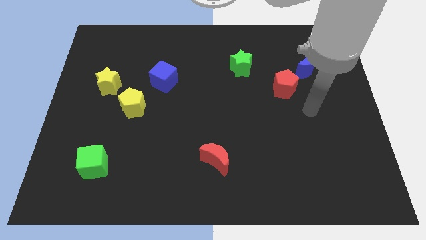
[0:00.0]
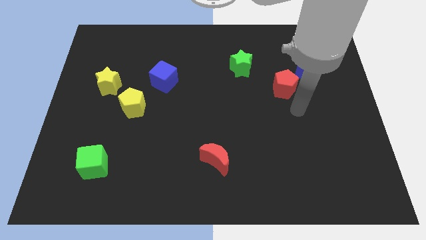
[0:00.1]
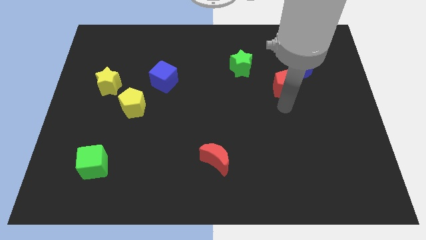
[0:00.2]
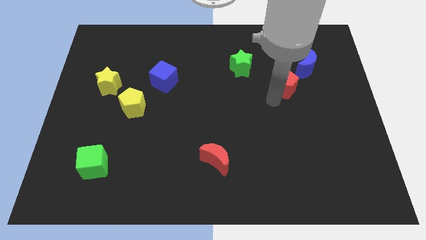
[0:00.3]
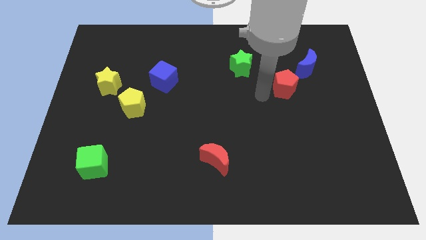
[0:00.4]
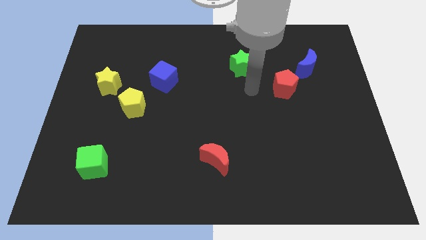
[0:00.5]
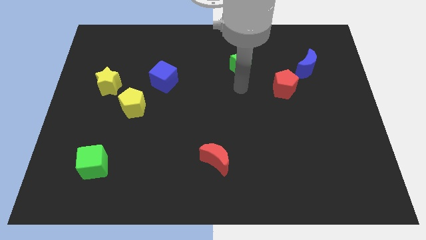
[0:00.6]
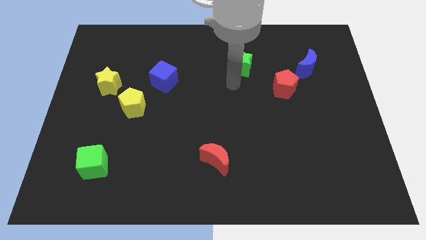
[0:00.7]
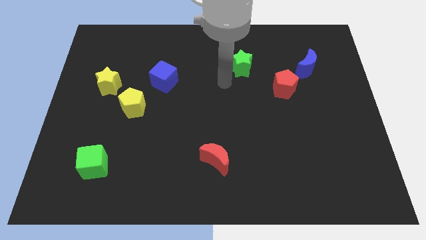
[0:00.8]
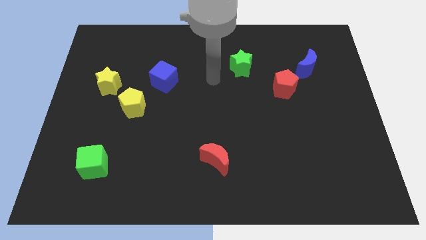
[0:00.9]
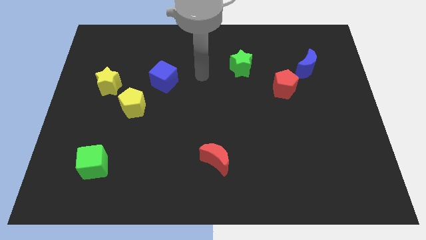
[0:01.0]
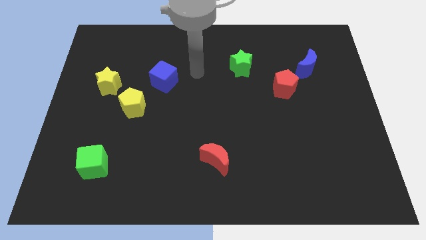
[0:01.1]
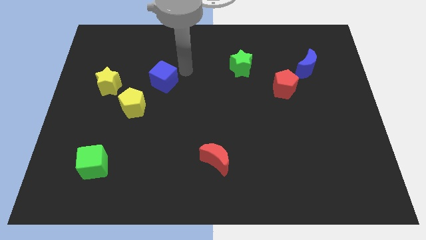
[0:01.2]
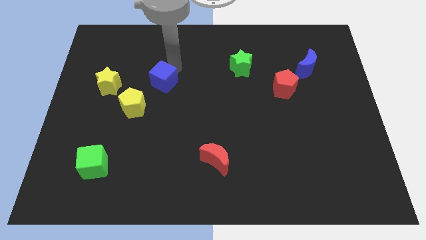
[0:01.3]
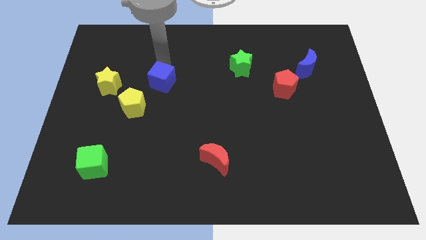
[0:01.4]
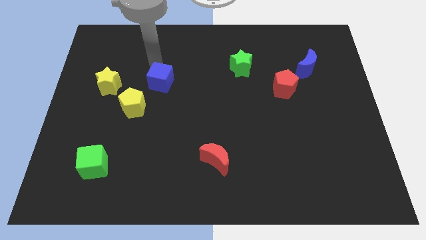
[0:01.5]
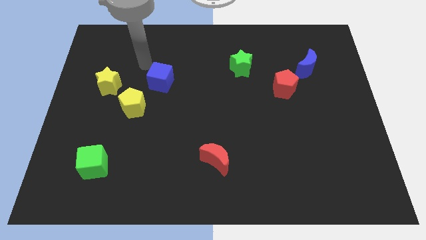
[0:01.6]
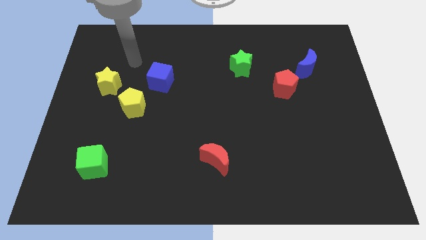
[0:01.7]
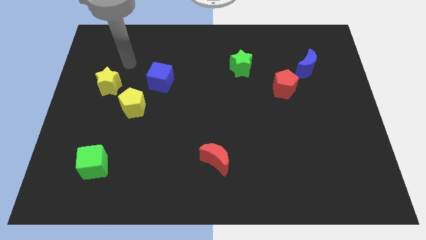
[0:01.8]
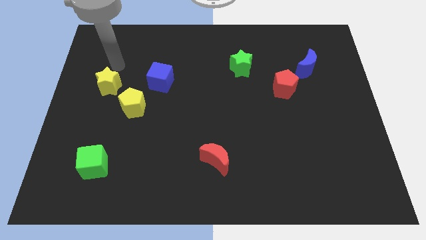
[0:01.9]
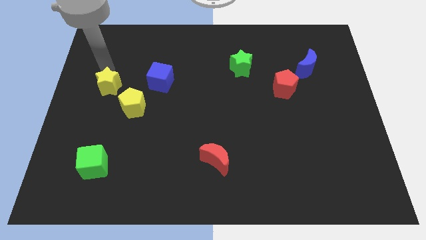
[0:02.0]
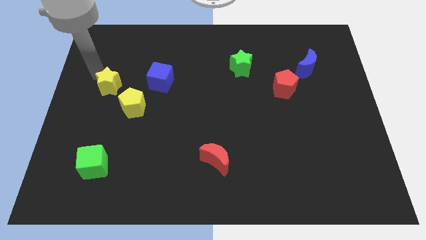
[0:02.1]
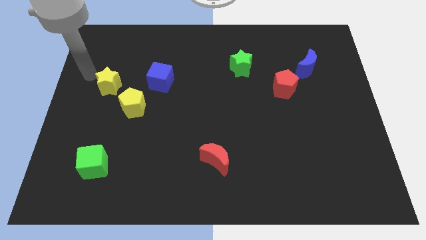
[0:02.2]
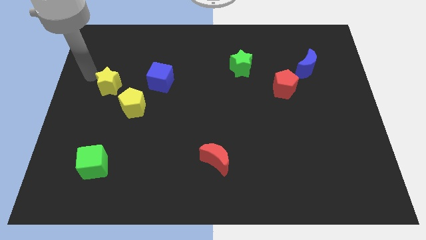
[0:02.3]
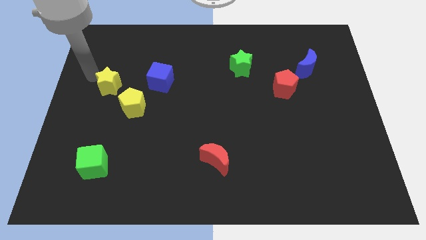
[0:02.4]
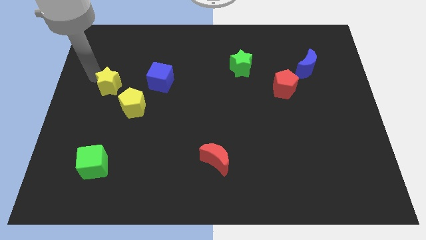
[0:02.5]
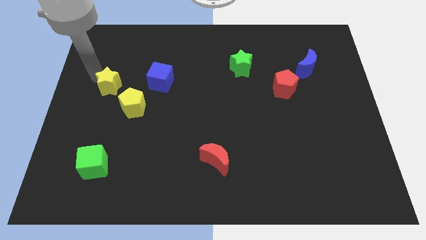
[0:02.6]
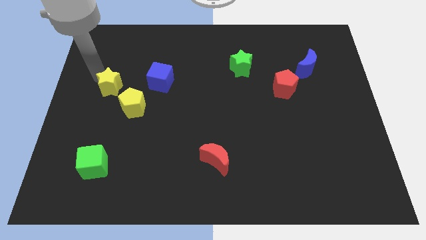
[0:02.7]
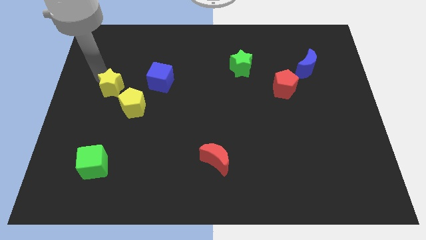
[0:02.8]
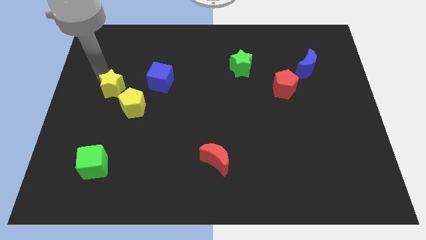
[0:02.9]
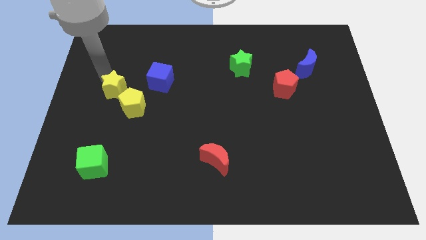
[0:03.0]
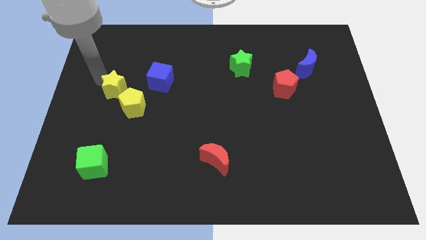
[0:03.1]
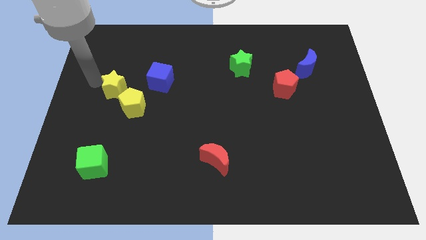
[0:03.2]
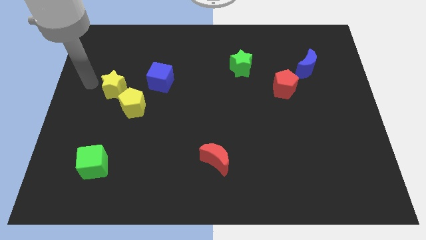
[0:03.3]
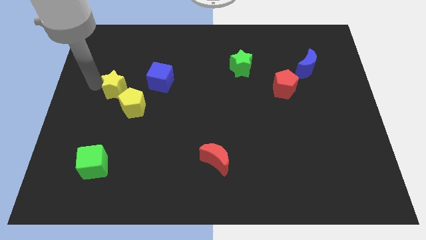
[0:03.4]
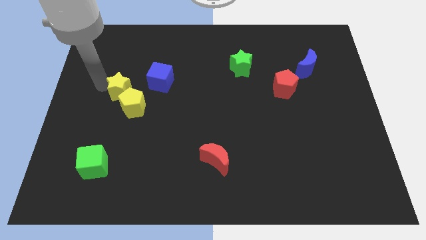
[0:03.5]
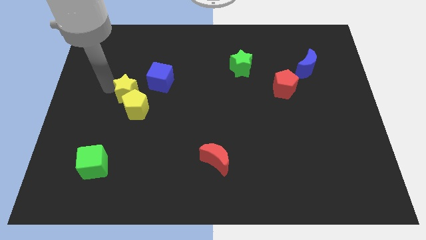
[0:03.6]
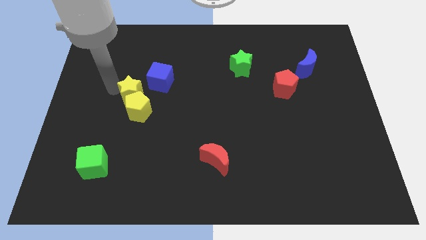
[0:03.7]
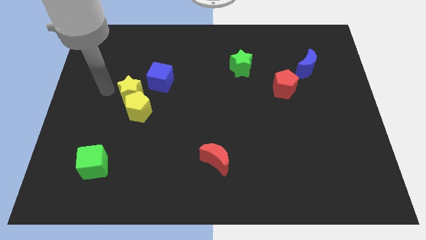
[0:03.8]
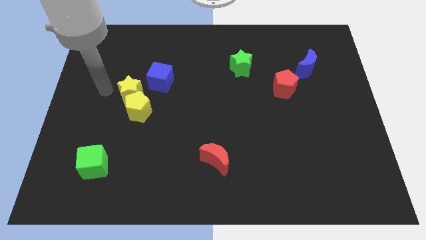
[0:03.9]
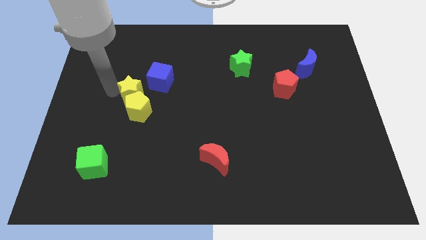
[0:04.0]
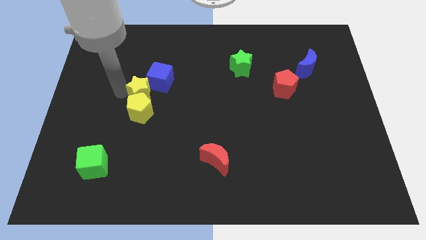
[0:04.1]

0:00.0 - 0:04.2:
move the yellow star right a little

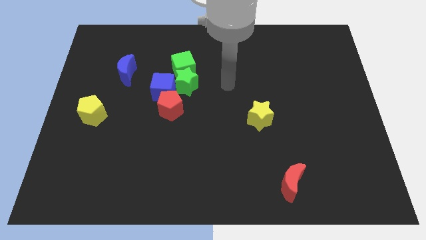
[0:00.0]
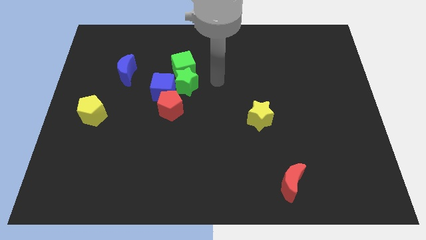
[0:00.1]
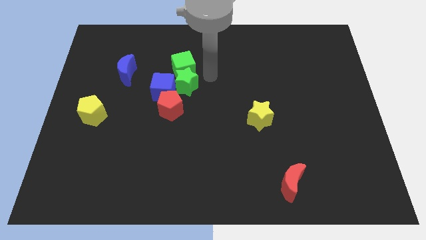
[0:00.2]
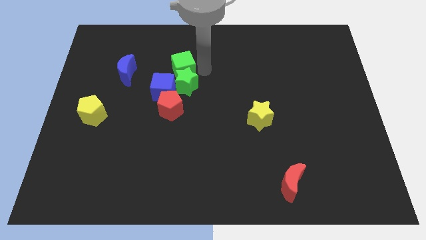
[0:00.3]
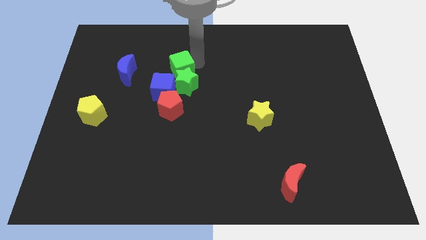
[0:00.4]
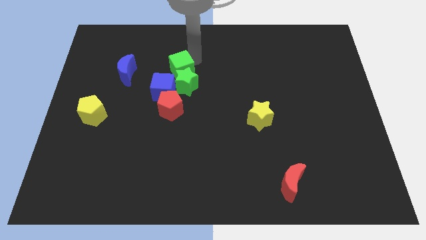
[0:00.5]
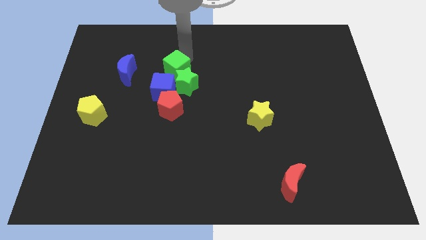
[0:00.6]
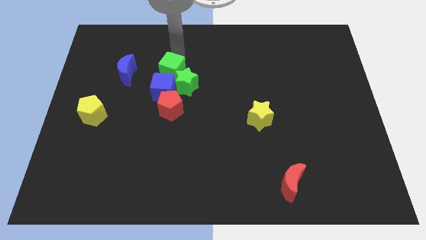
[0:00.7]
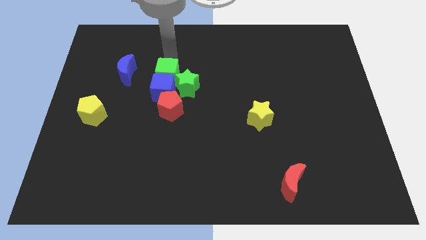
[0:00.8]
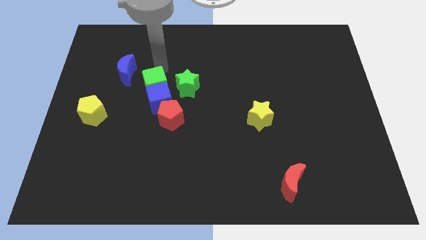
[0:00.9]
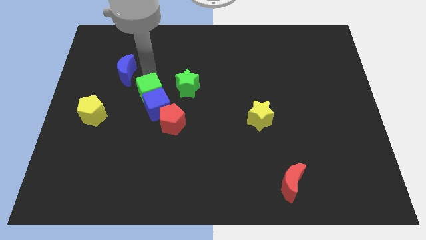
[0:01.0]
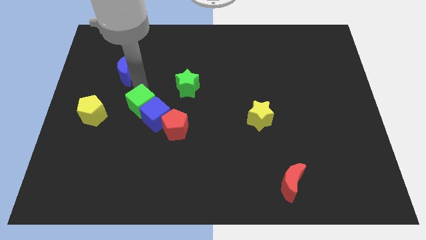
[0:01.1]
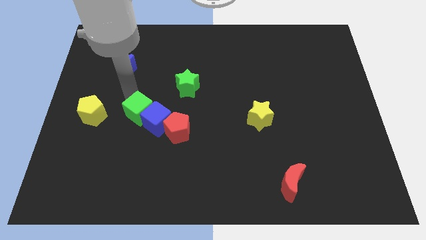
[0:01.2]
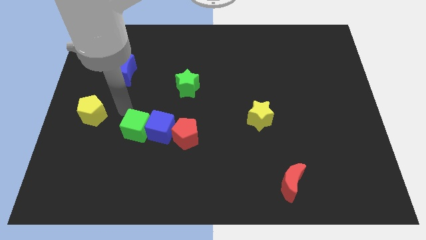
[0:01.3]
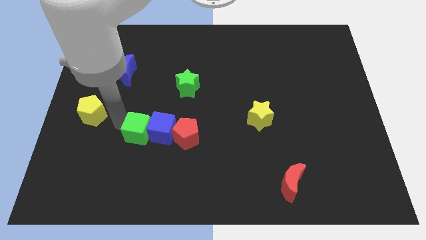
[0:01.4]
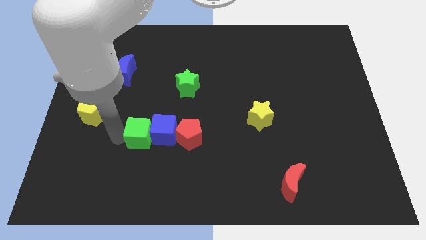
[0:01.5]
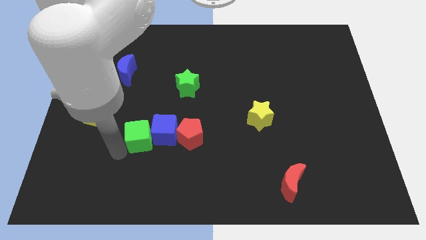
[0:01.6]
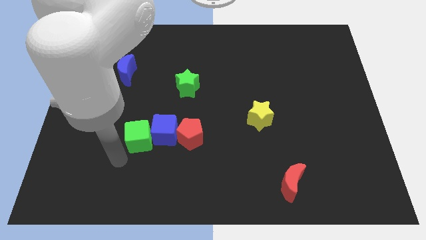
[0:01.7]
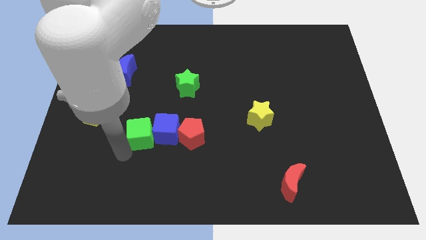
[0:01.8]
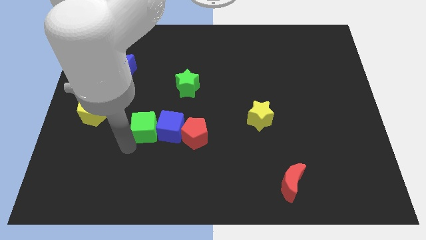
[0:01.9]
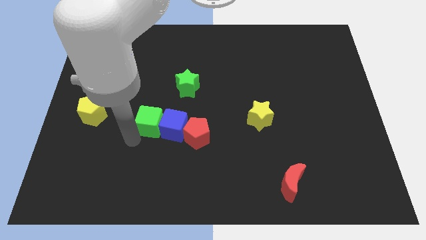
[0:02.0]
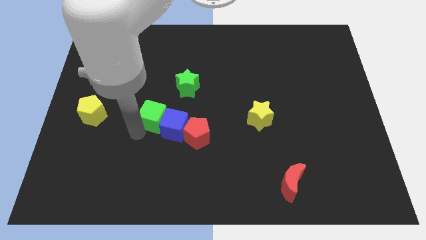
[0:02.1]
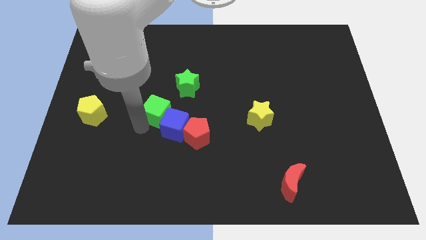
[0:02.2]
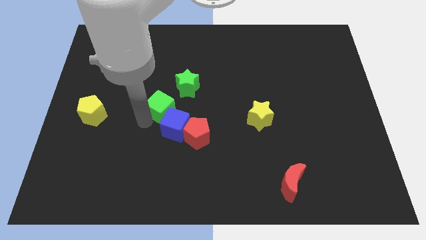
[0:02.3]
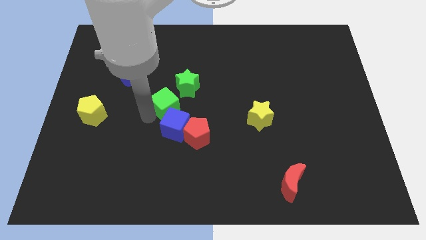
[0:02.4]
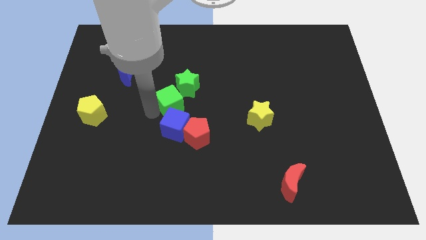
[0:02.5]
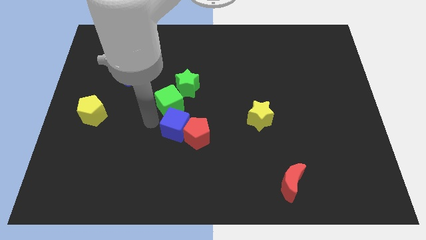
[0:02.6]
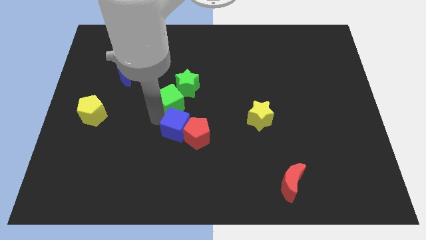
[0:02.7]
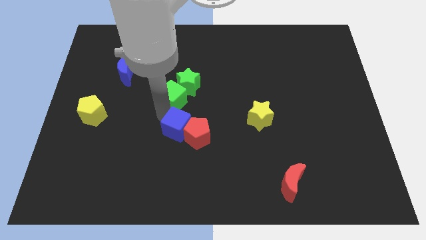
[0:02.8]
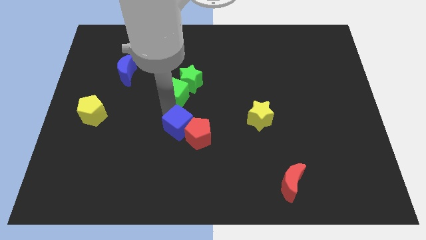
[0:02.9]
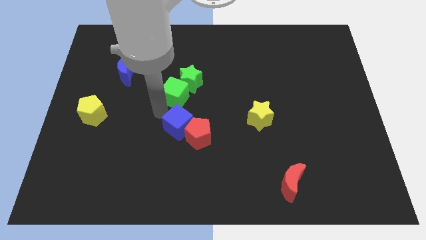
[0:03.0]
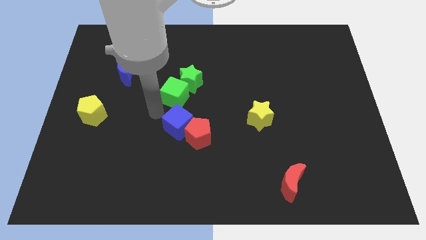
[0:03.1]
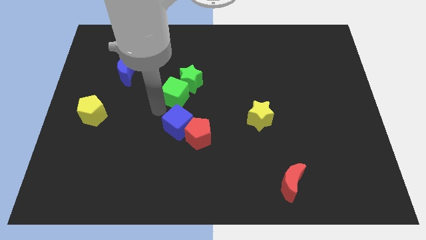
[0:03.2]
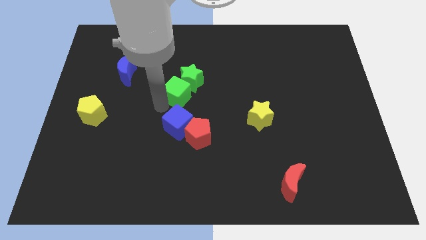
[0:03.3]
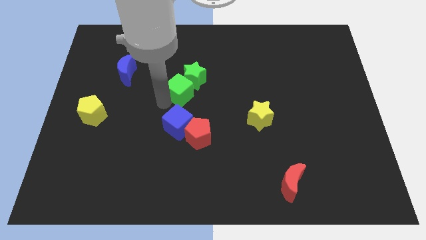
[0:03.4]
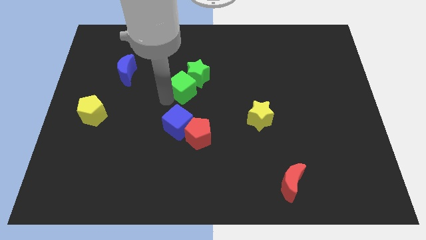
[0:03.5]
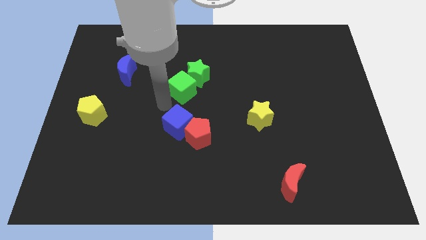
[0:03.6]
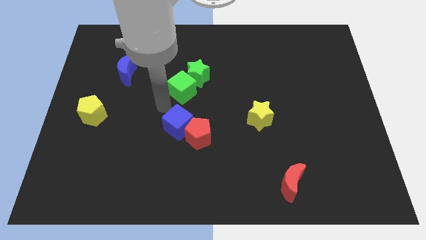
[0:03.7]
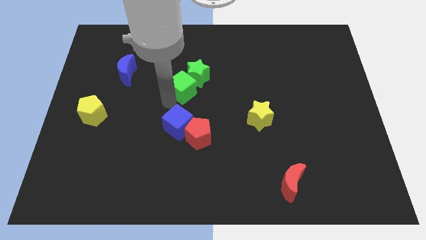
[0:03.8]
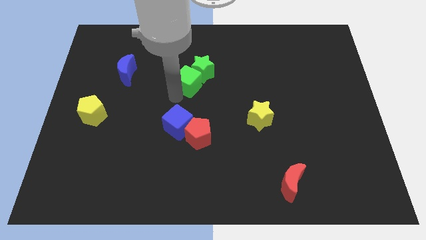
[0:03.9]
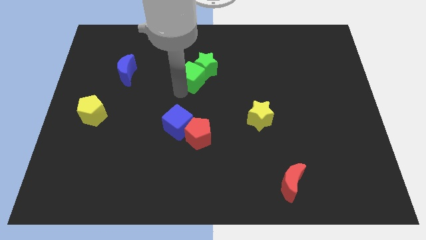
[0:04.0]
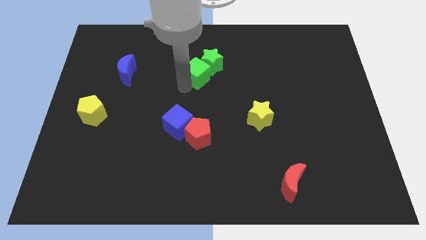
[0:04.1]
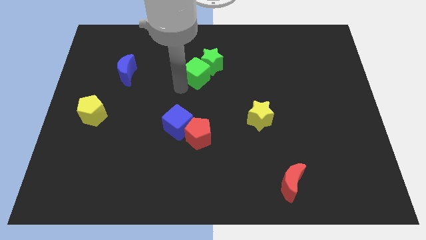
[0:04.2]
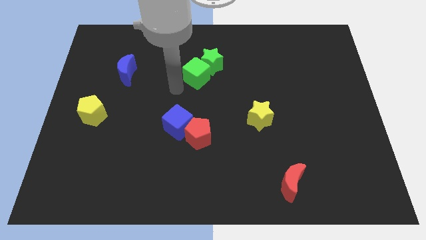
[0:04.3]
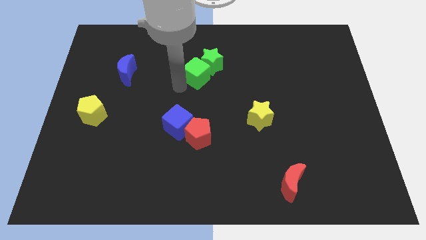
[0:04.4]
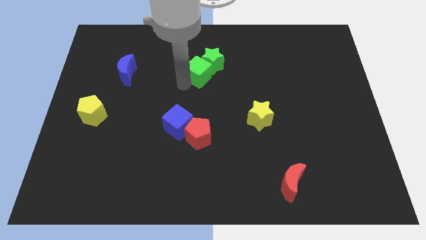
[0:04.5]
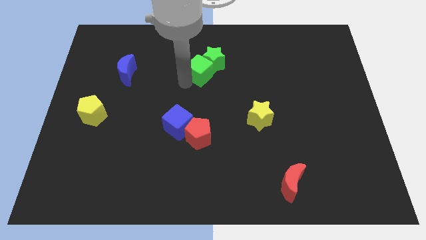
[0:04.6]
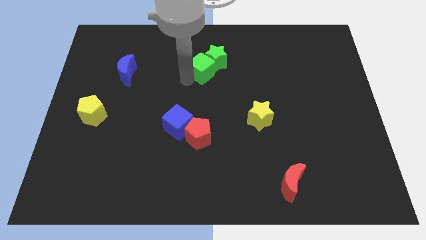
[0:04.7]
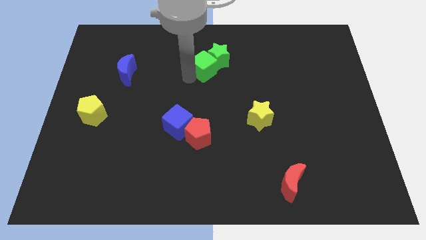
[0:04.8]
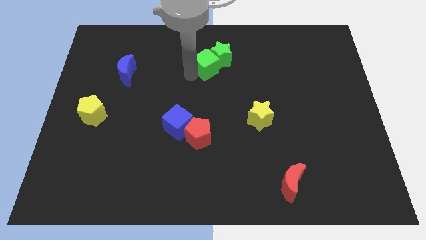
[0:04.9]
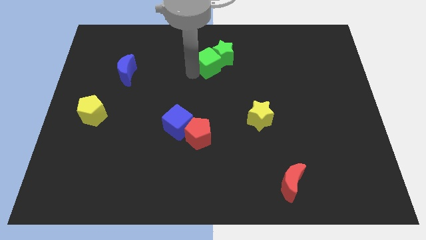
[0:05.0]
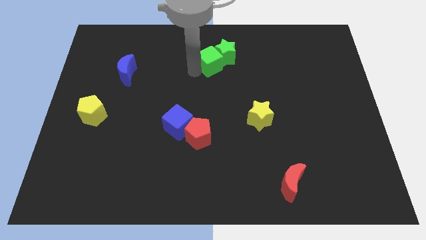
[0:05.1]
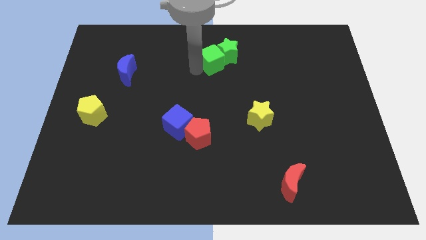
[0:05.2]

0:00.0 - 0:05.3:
push the green cube to the right a little
